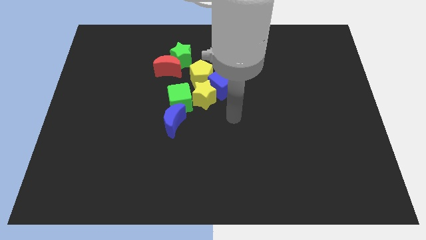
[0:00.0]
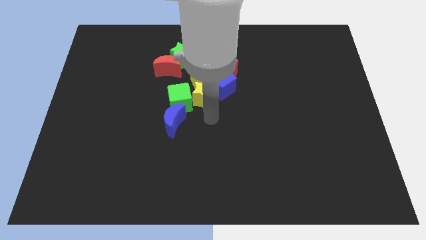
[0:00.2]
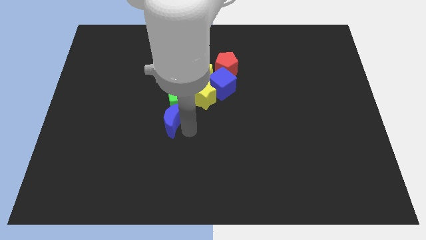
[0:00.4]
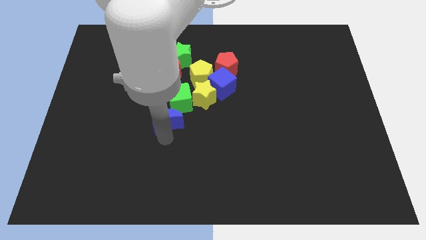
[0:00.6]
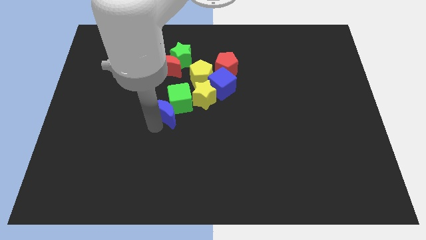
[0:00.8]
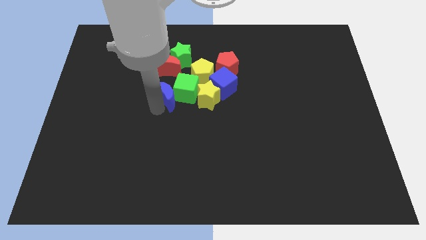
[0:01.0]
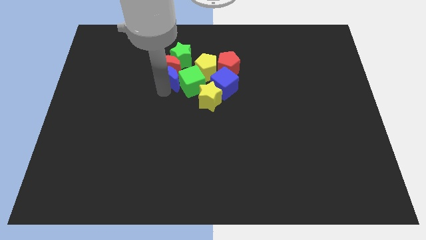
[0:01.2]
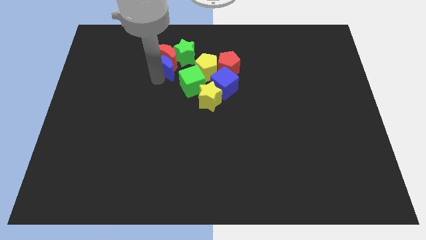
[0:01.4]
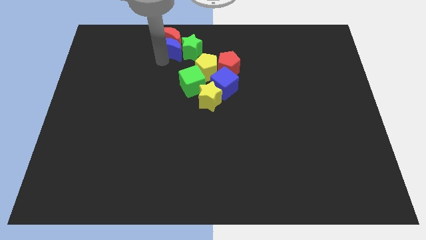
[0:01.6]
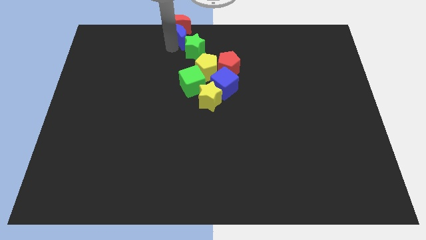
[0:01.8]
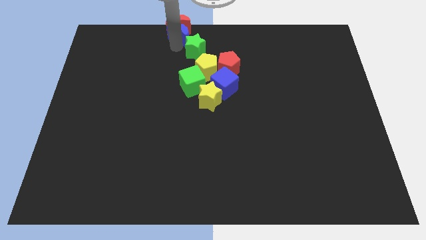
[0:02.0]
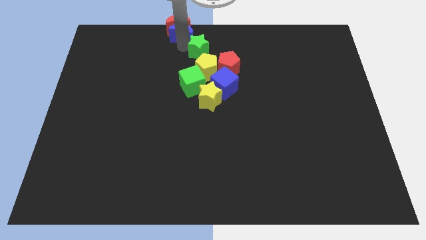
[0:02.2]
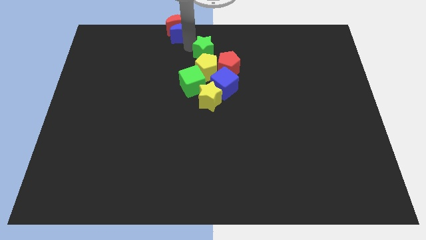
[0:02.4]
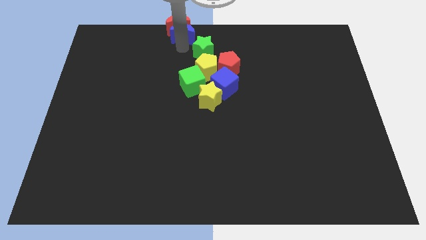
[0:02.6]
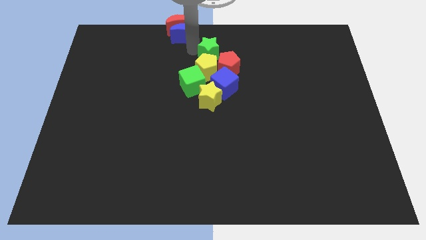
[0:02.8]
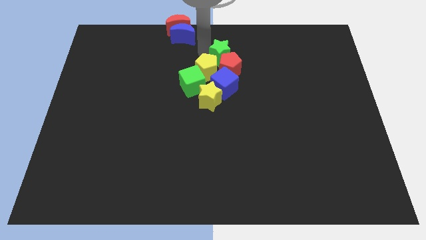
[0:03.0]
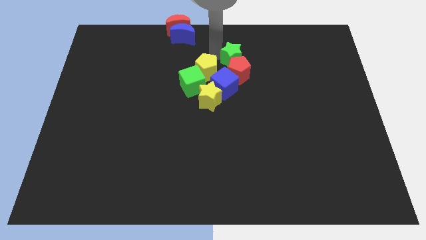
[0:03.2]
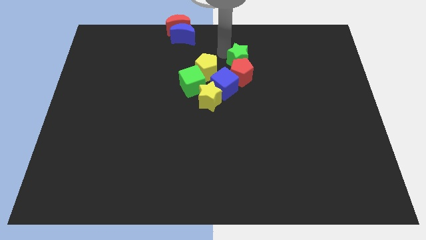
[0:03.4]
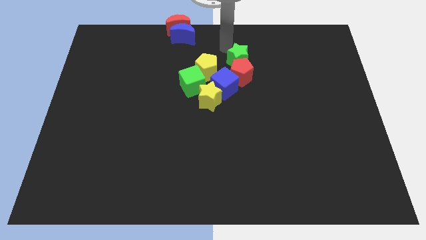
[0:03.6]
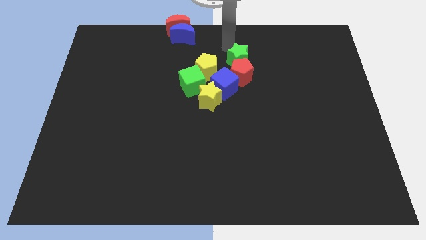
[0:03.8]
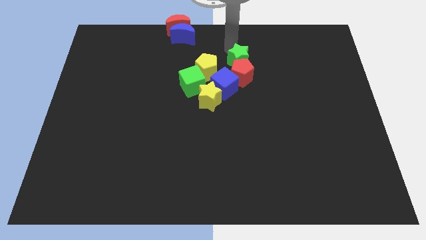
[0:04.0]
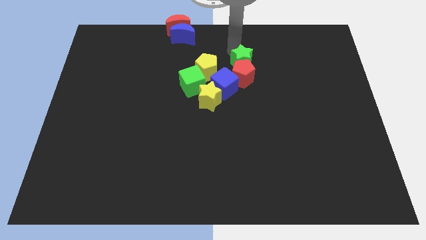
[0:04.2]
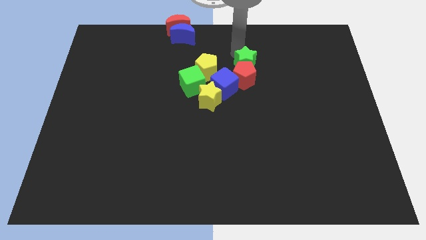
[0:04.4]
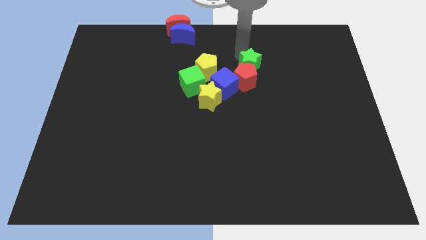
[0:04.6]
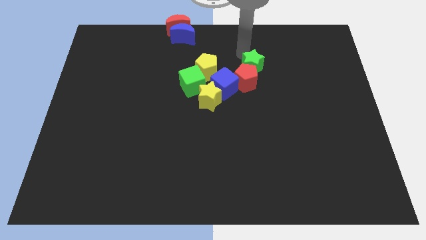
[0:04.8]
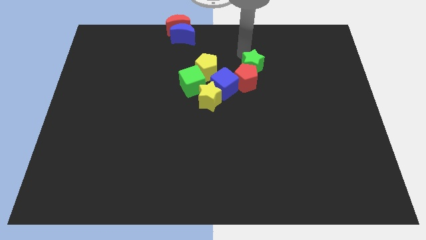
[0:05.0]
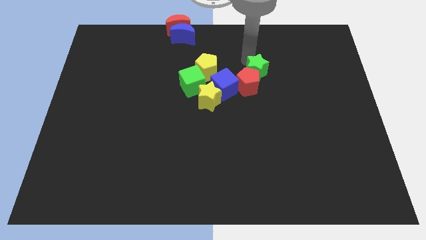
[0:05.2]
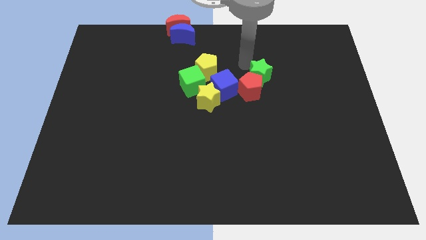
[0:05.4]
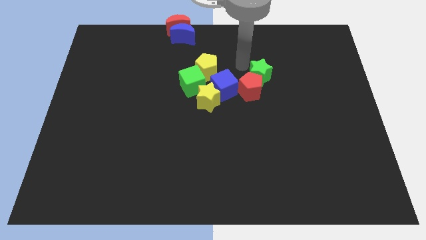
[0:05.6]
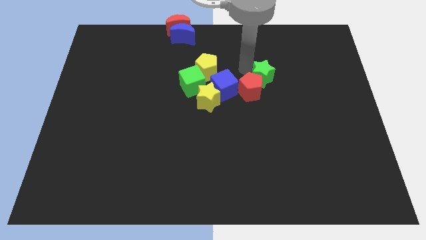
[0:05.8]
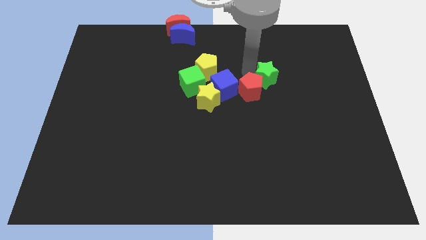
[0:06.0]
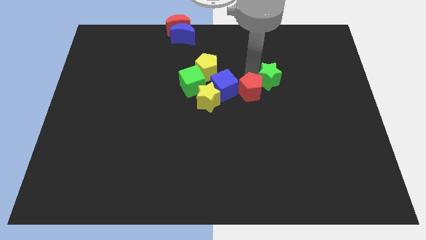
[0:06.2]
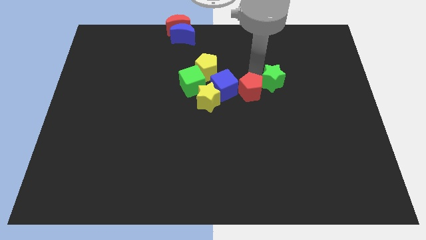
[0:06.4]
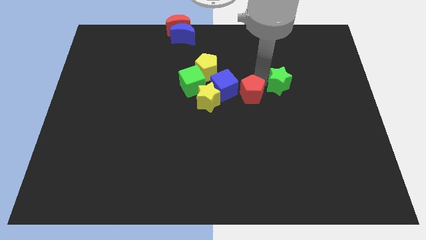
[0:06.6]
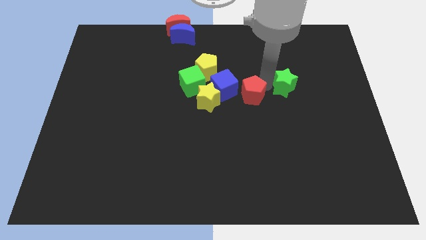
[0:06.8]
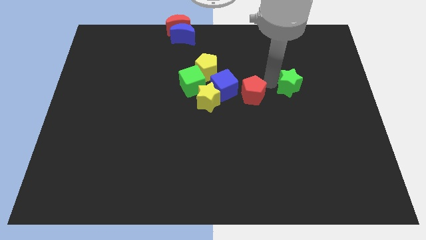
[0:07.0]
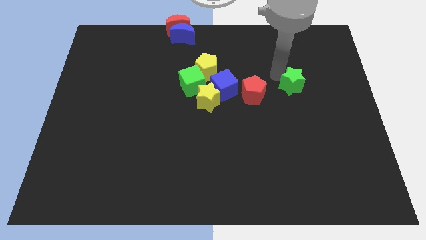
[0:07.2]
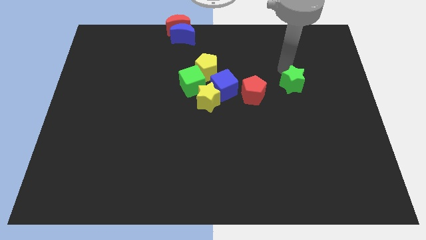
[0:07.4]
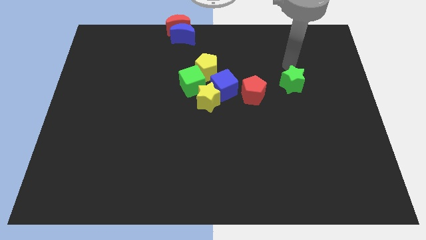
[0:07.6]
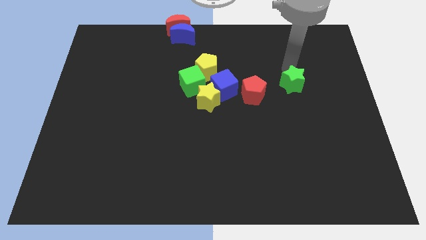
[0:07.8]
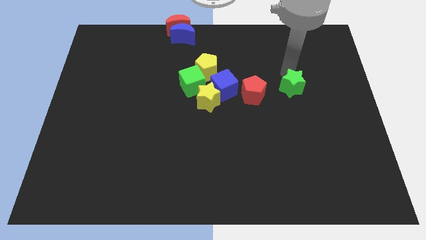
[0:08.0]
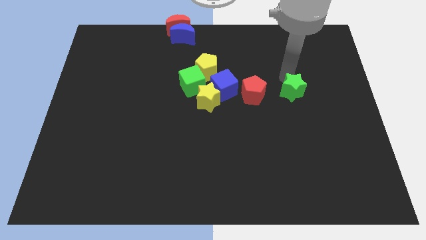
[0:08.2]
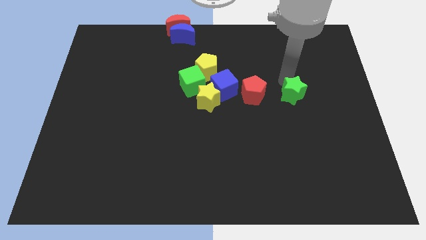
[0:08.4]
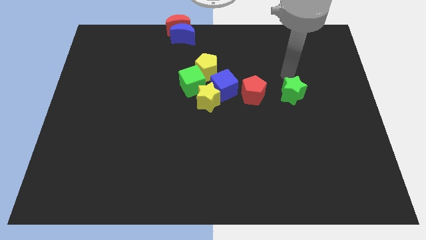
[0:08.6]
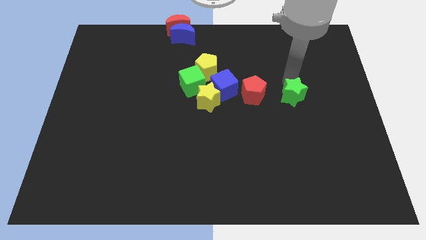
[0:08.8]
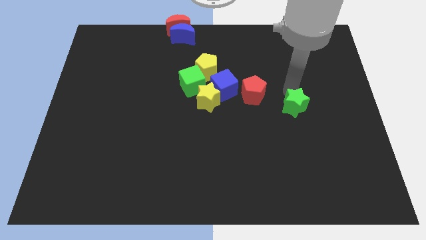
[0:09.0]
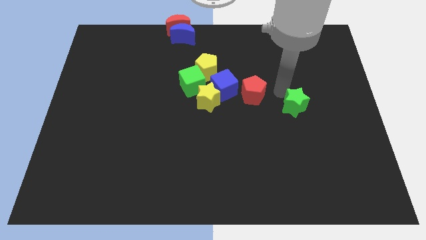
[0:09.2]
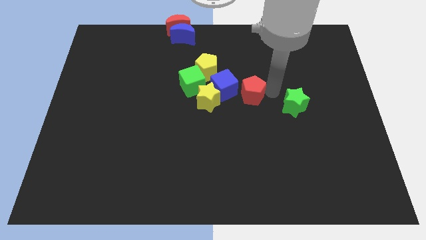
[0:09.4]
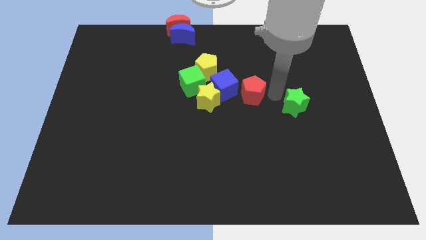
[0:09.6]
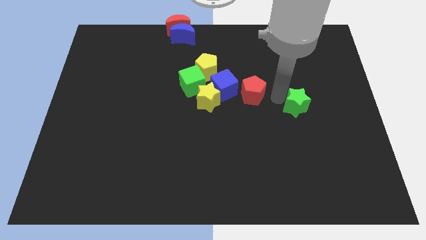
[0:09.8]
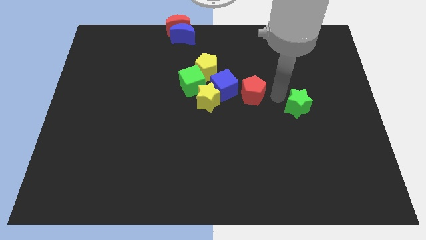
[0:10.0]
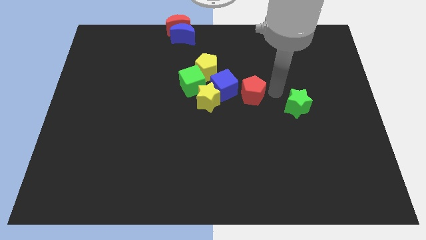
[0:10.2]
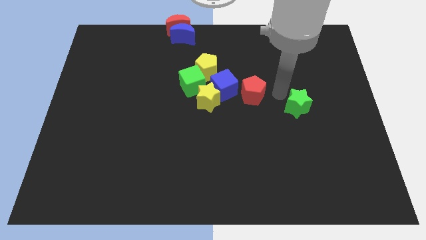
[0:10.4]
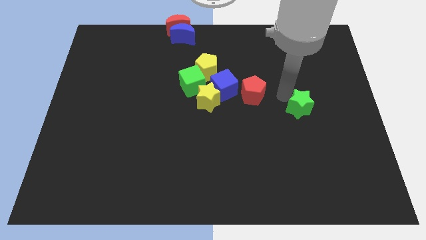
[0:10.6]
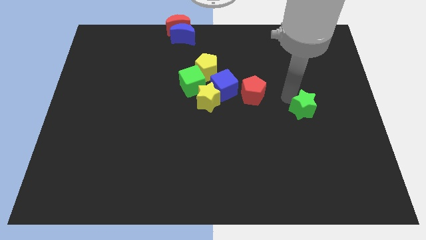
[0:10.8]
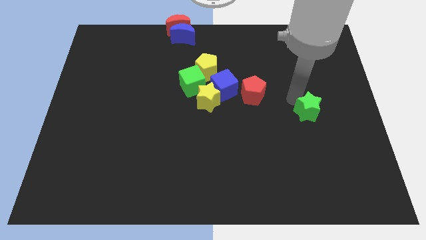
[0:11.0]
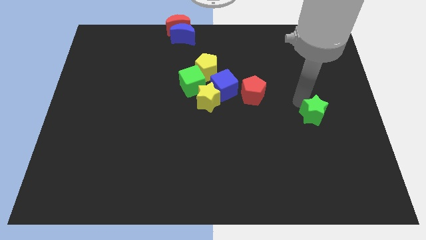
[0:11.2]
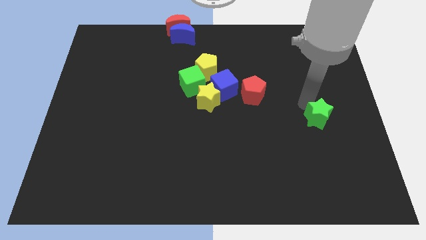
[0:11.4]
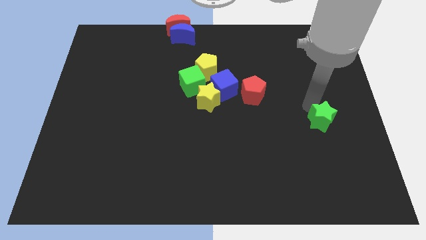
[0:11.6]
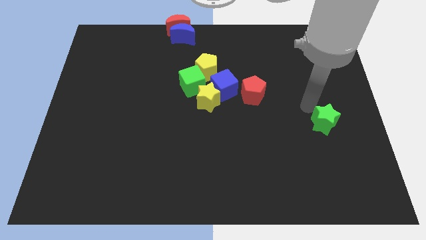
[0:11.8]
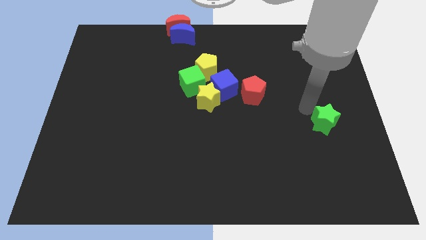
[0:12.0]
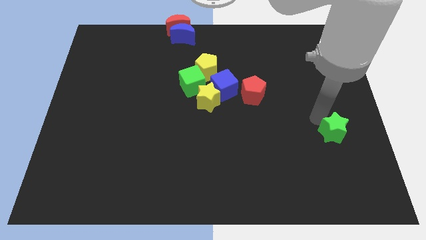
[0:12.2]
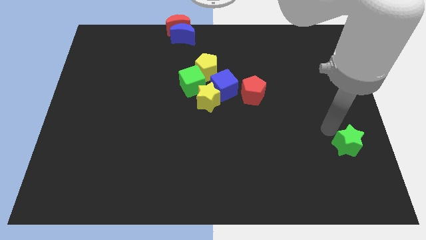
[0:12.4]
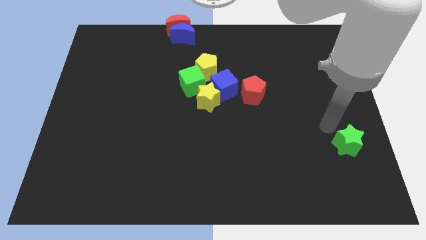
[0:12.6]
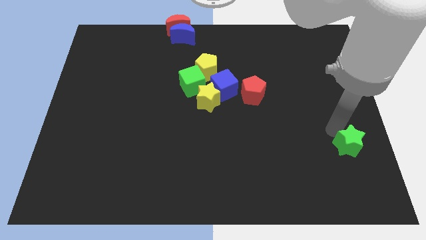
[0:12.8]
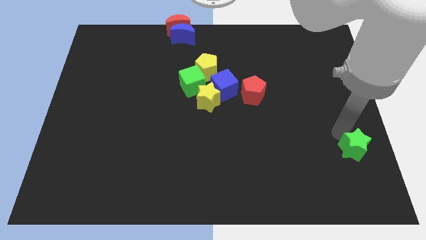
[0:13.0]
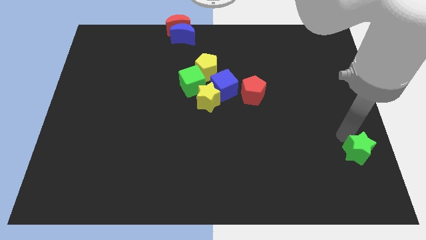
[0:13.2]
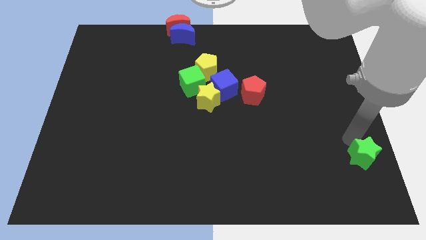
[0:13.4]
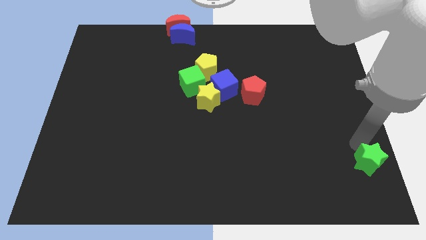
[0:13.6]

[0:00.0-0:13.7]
put the green star to the bottom right of the board
